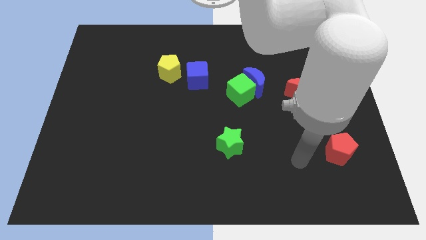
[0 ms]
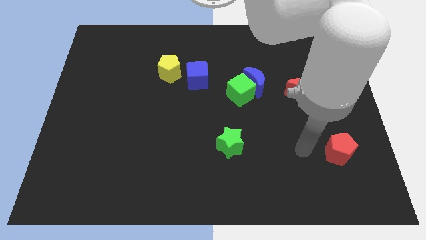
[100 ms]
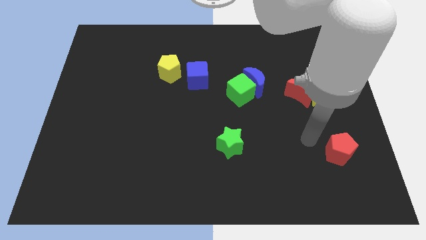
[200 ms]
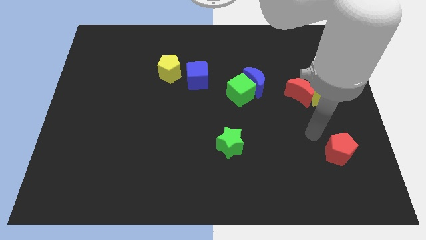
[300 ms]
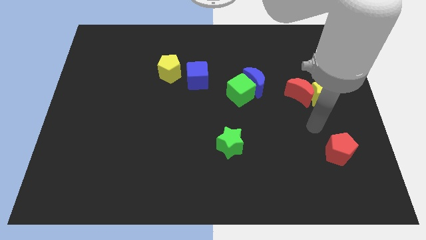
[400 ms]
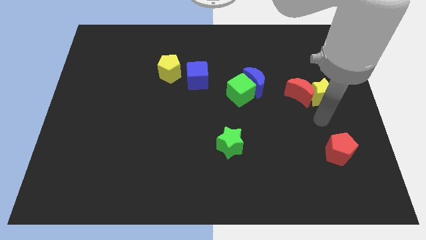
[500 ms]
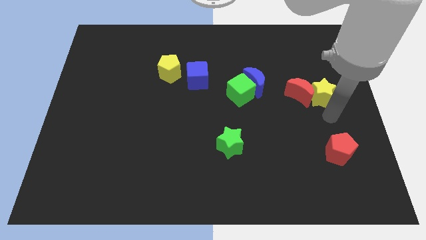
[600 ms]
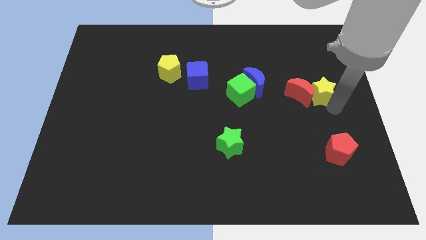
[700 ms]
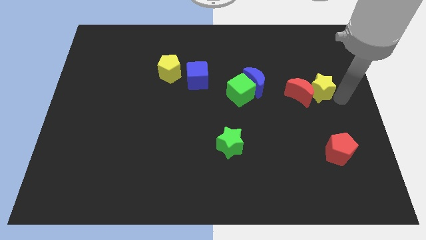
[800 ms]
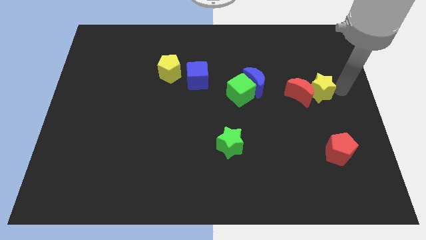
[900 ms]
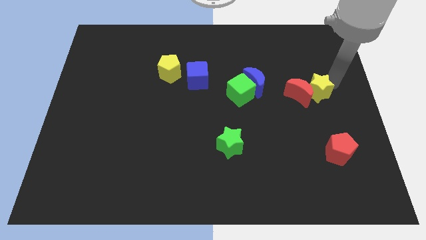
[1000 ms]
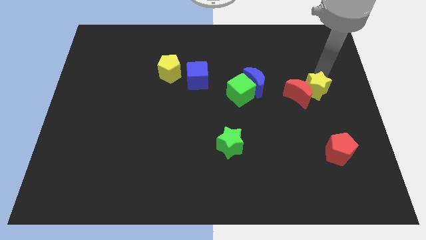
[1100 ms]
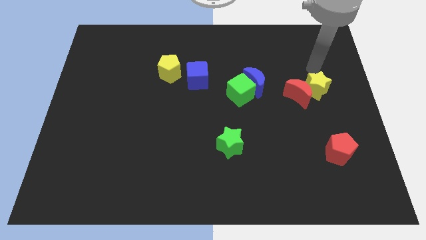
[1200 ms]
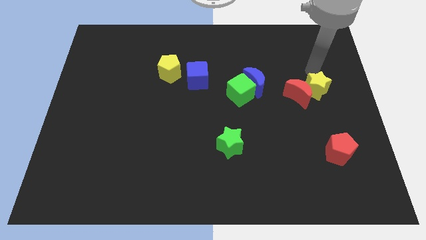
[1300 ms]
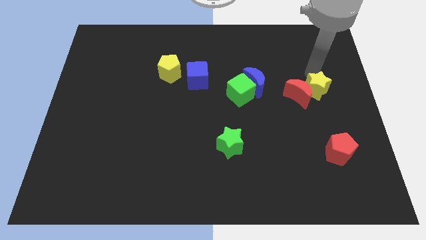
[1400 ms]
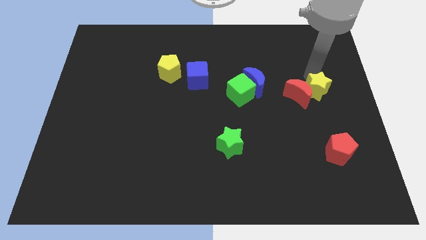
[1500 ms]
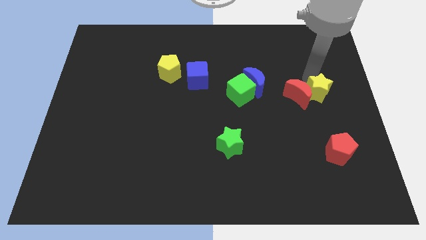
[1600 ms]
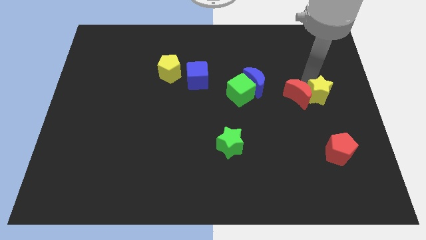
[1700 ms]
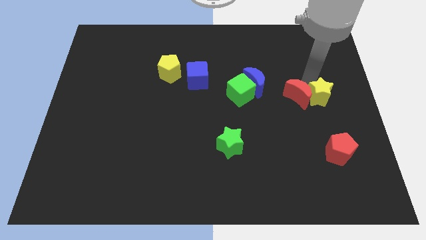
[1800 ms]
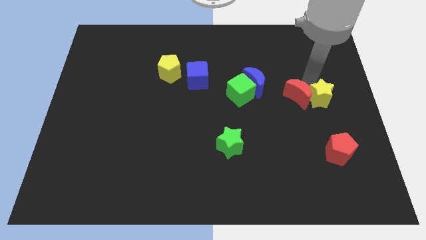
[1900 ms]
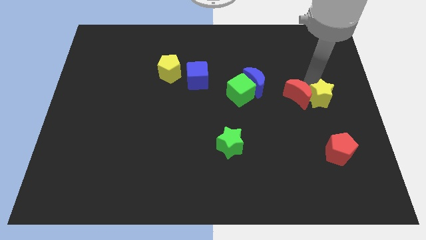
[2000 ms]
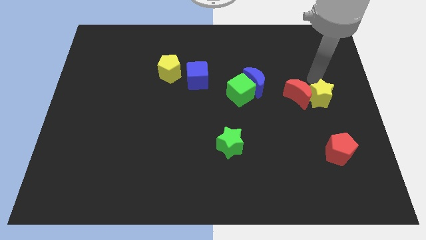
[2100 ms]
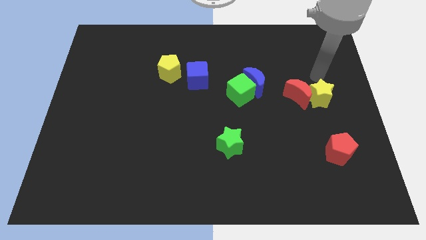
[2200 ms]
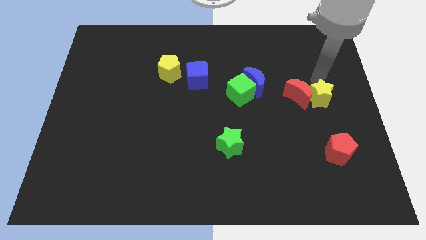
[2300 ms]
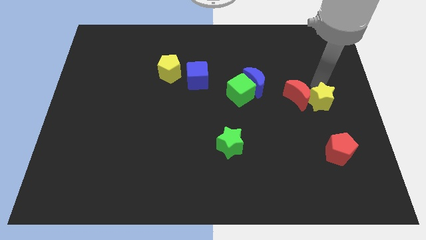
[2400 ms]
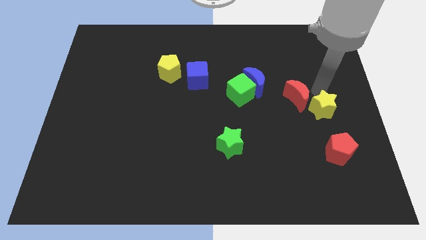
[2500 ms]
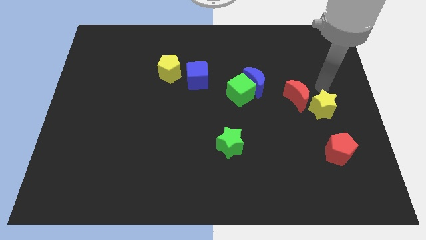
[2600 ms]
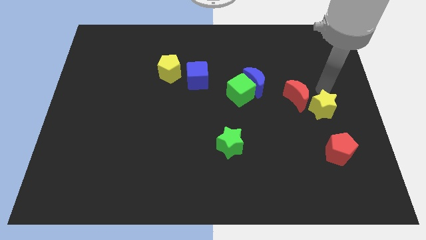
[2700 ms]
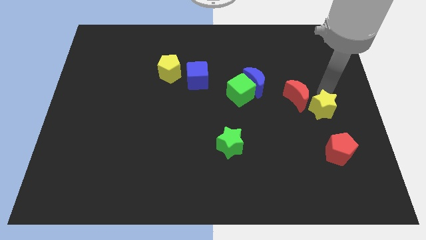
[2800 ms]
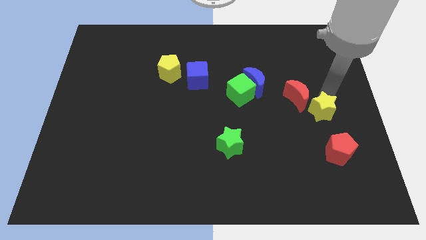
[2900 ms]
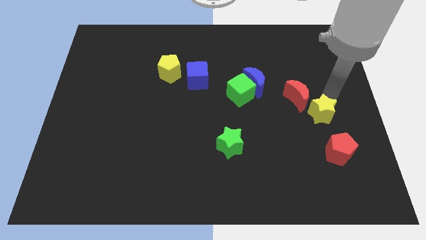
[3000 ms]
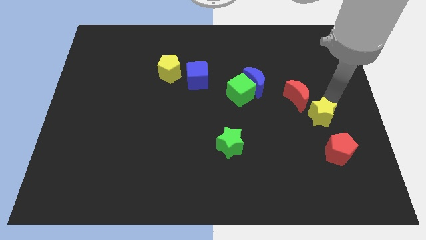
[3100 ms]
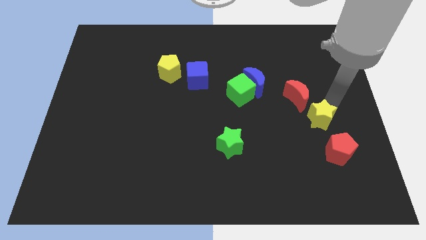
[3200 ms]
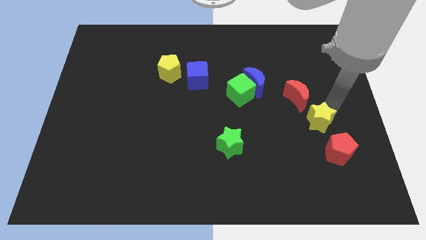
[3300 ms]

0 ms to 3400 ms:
push the yellow star down a bit

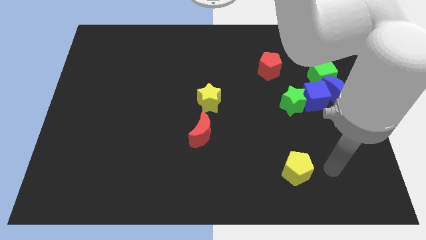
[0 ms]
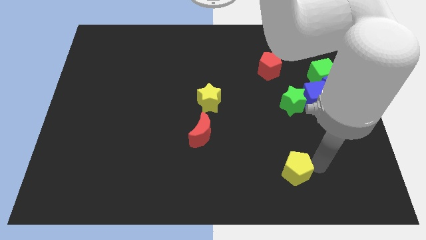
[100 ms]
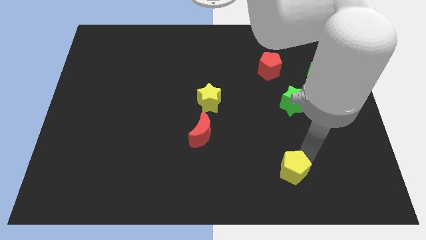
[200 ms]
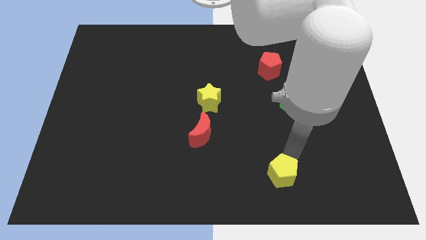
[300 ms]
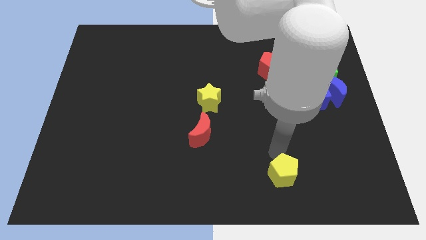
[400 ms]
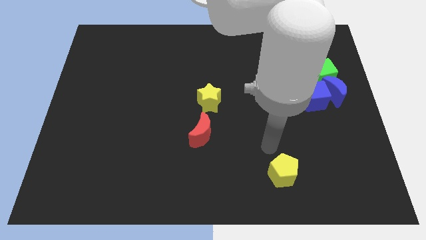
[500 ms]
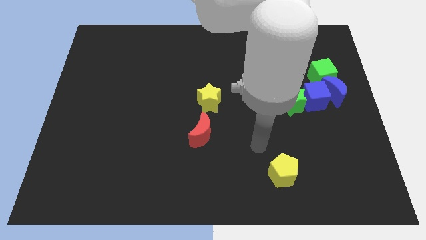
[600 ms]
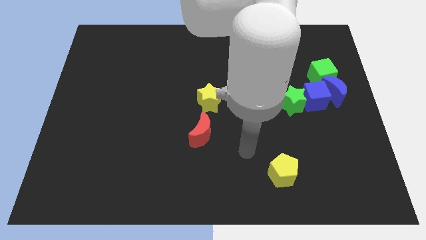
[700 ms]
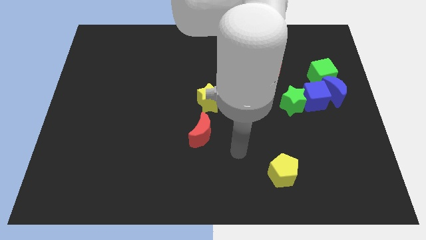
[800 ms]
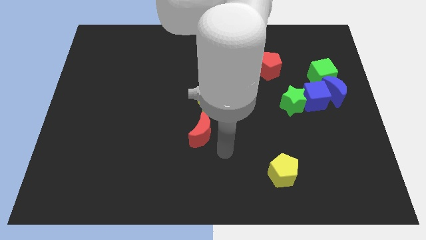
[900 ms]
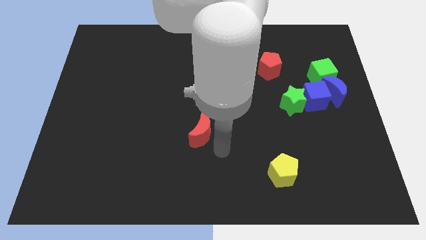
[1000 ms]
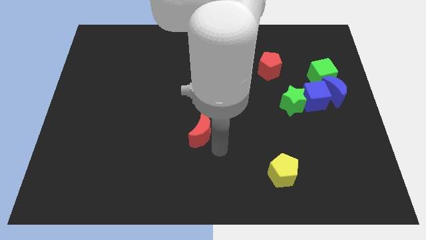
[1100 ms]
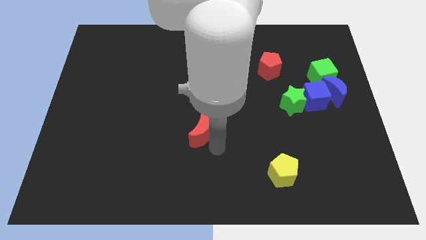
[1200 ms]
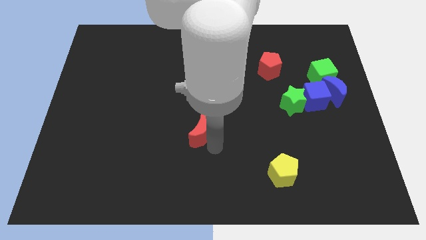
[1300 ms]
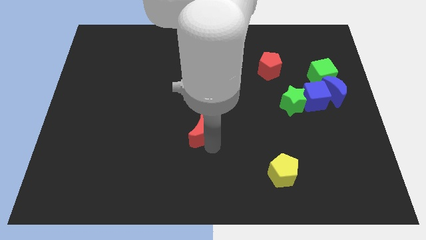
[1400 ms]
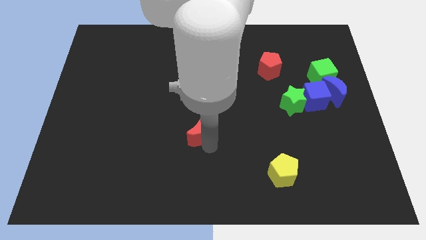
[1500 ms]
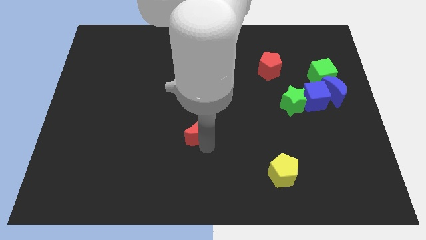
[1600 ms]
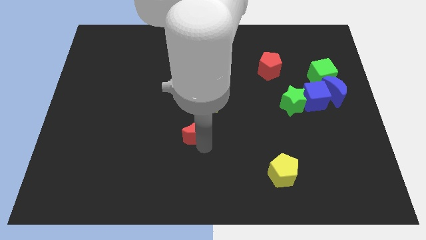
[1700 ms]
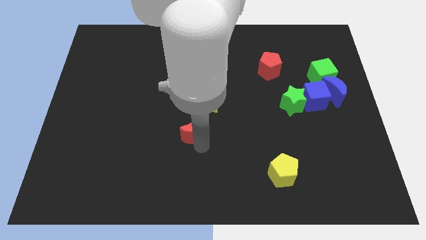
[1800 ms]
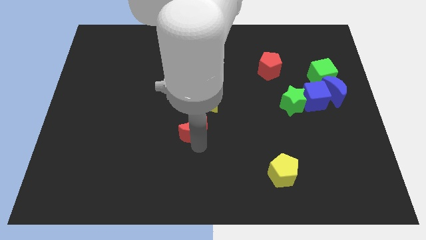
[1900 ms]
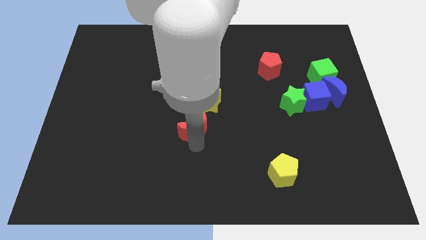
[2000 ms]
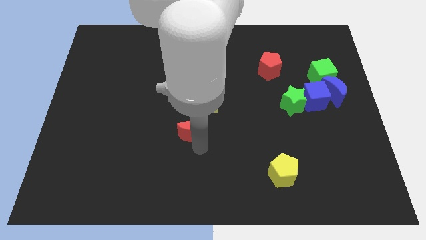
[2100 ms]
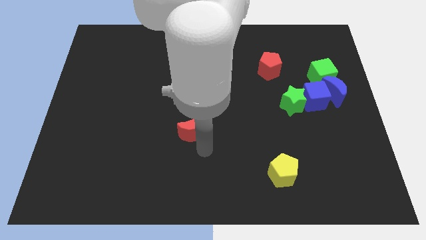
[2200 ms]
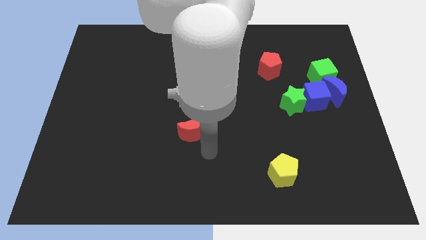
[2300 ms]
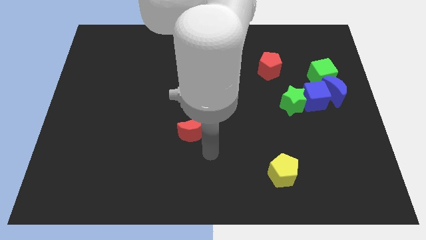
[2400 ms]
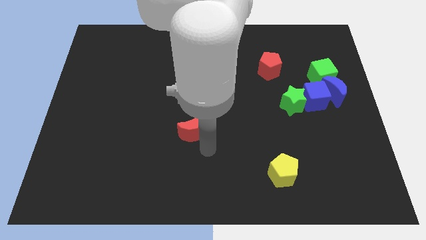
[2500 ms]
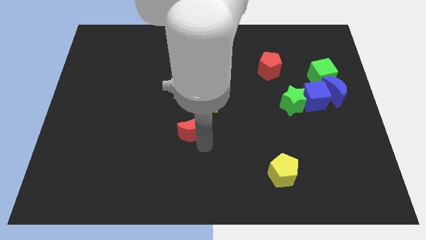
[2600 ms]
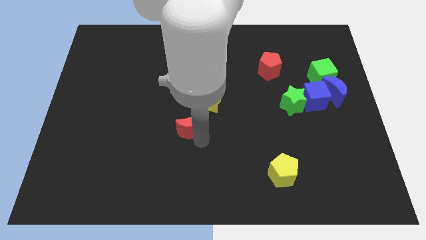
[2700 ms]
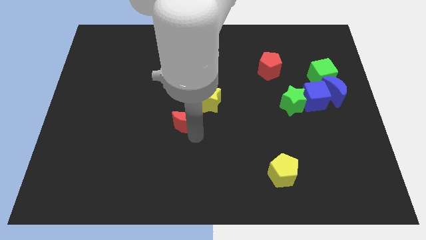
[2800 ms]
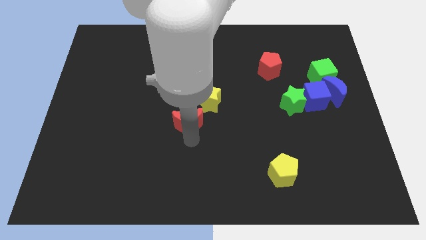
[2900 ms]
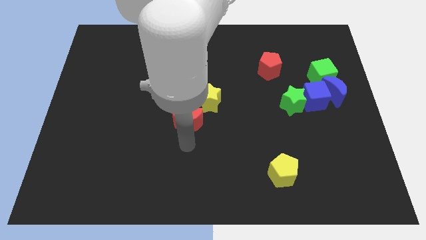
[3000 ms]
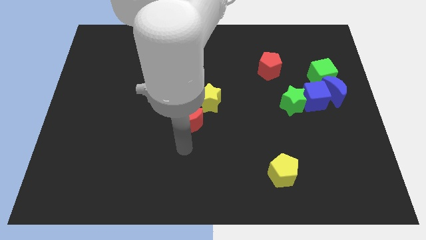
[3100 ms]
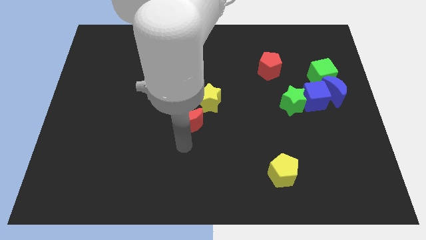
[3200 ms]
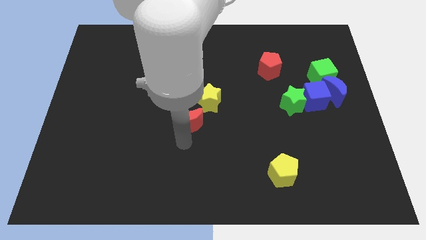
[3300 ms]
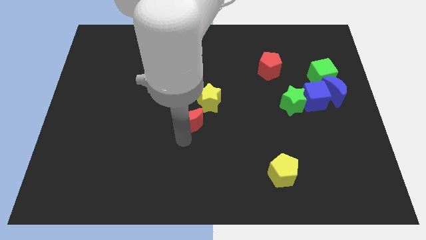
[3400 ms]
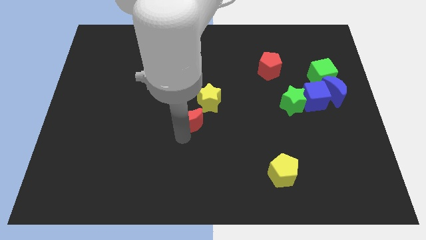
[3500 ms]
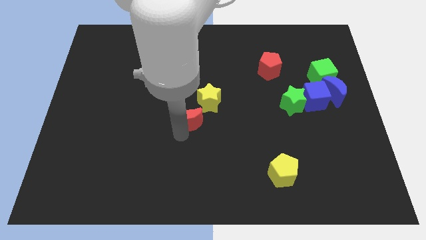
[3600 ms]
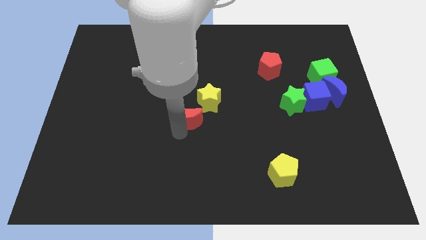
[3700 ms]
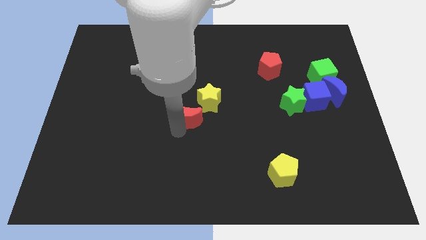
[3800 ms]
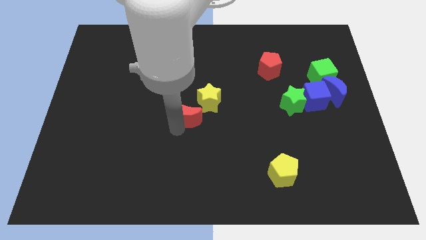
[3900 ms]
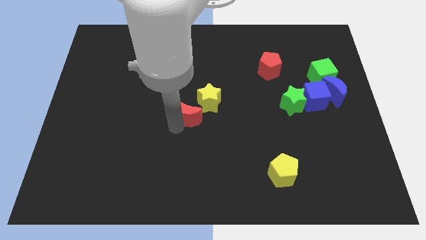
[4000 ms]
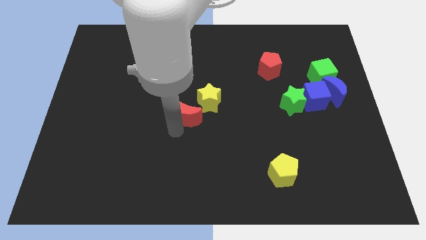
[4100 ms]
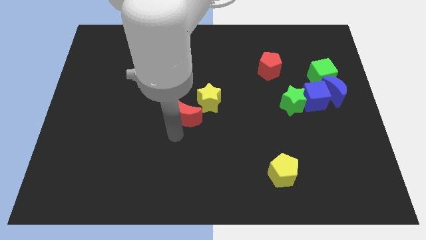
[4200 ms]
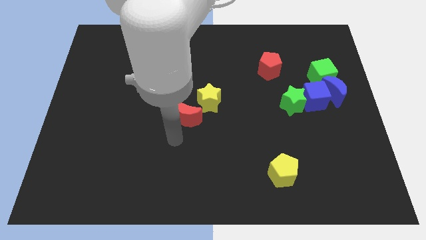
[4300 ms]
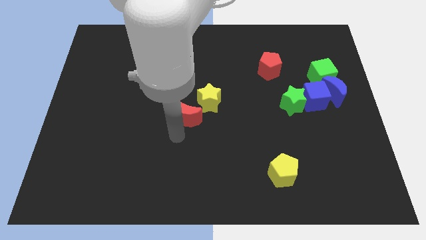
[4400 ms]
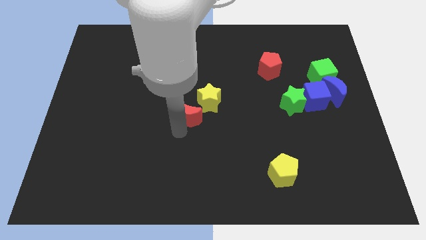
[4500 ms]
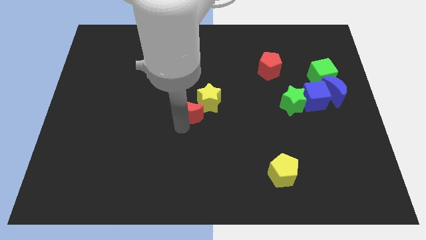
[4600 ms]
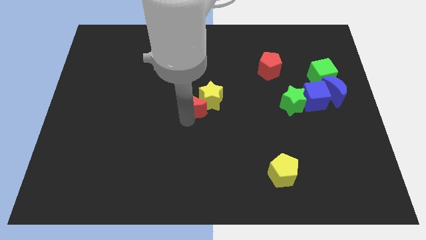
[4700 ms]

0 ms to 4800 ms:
slightly move the red moon upwards
